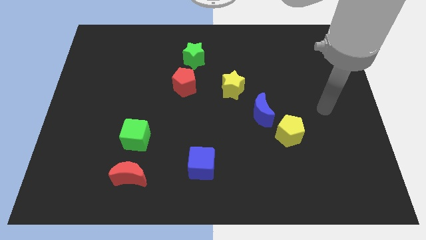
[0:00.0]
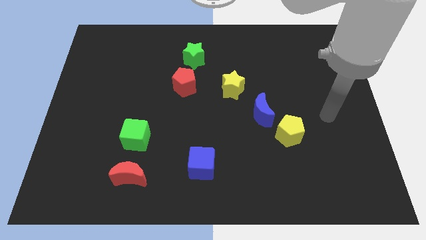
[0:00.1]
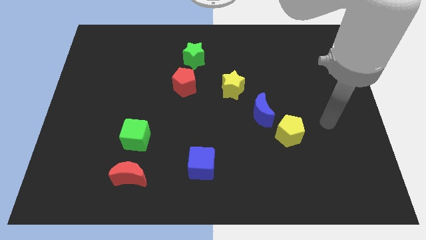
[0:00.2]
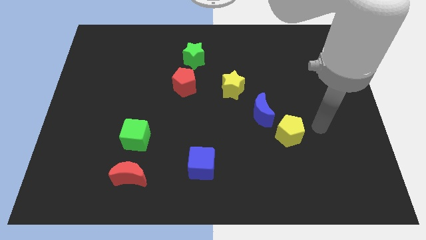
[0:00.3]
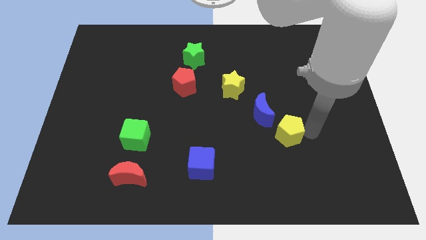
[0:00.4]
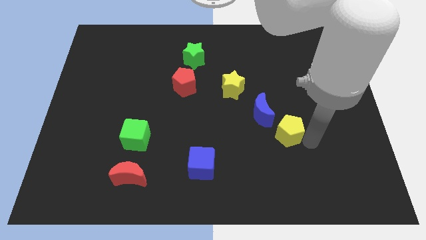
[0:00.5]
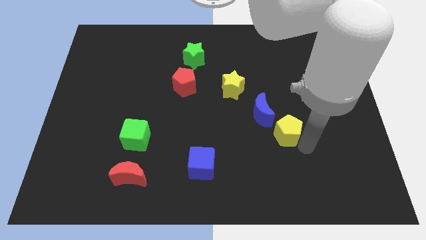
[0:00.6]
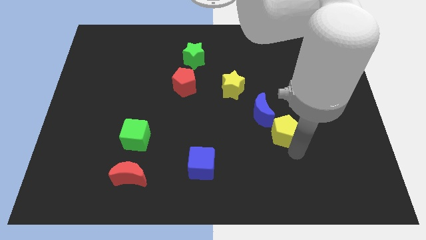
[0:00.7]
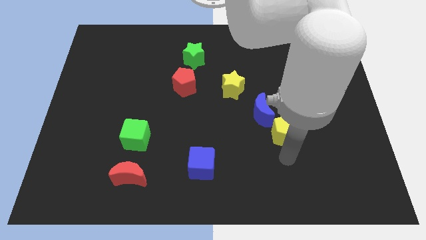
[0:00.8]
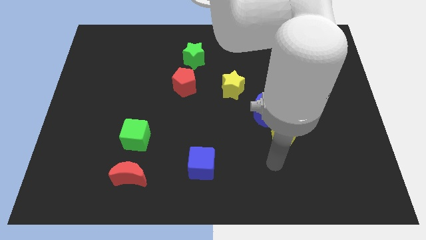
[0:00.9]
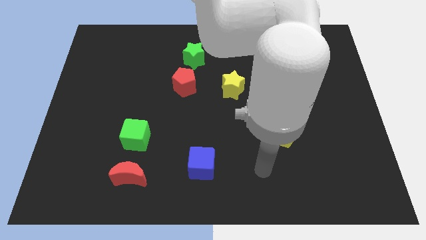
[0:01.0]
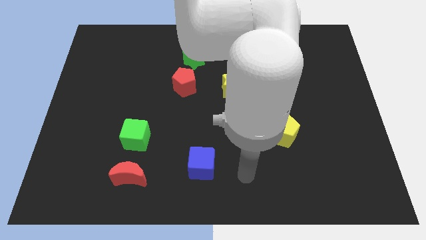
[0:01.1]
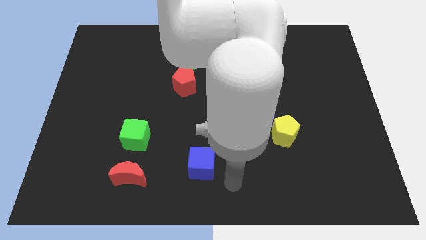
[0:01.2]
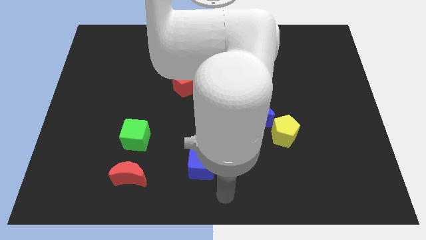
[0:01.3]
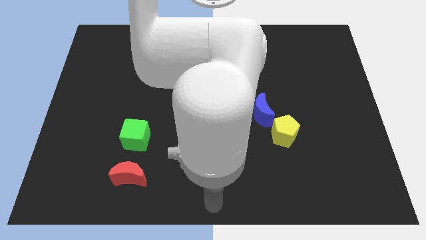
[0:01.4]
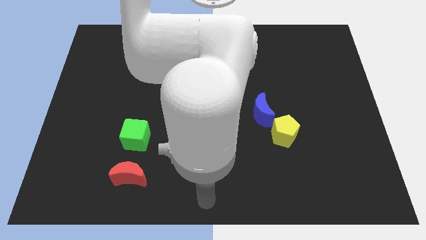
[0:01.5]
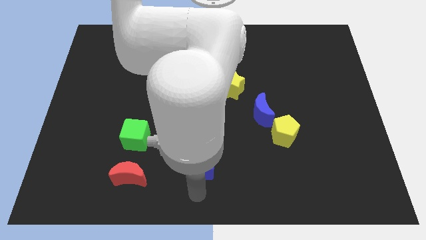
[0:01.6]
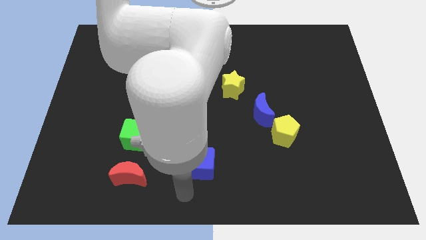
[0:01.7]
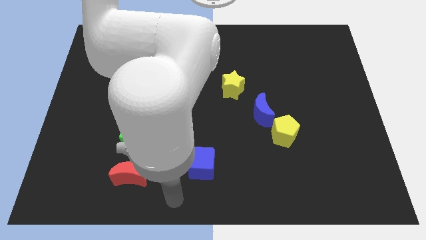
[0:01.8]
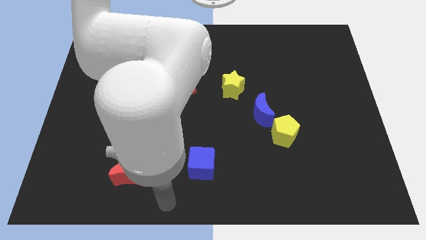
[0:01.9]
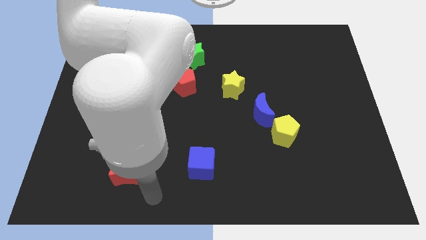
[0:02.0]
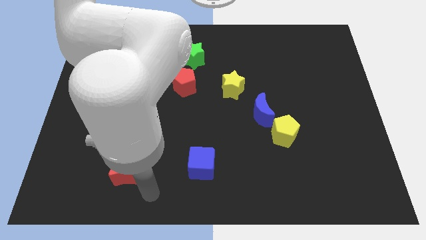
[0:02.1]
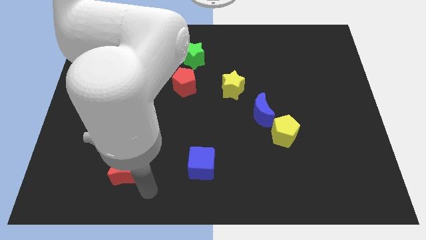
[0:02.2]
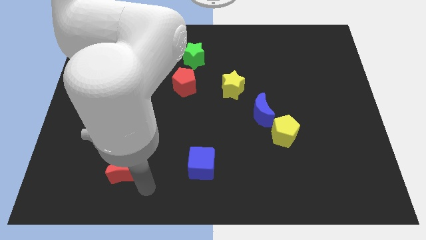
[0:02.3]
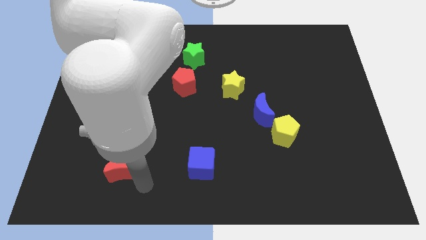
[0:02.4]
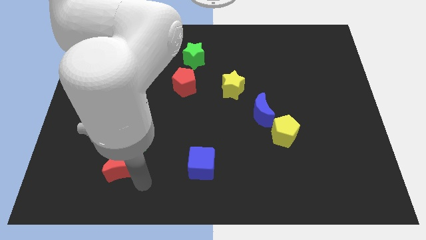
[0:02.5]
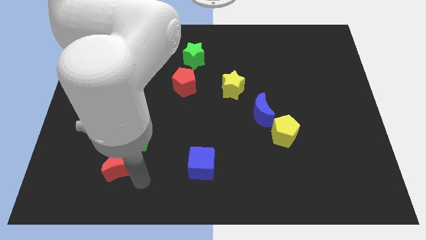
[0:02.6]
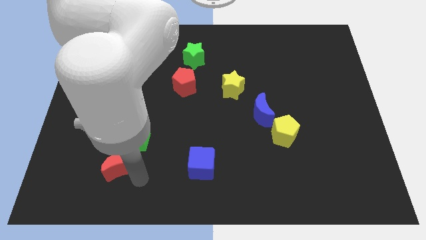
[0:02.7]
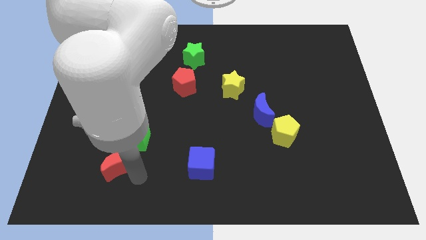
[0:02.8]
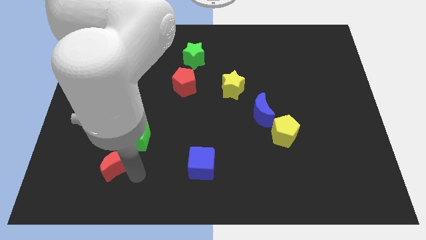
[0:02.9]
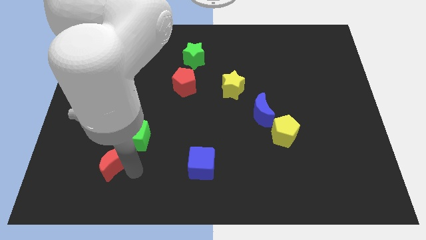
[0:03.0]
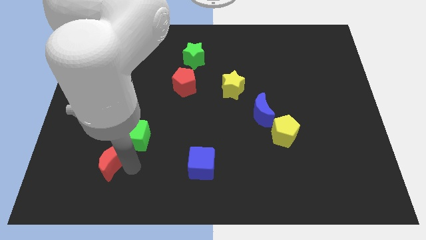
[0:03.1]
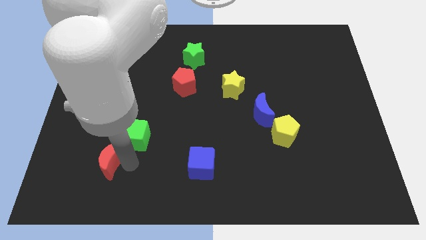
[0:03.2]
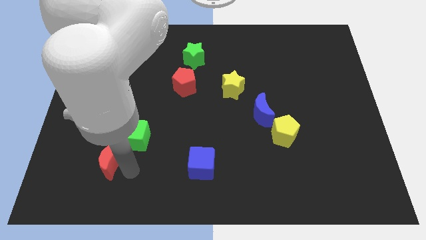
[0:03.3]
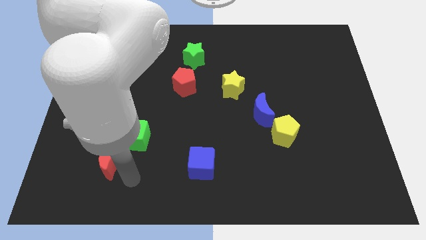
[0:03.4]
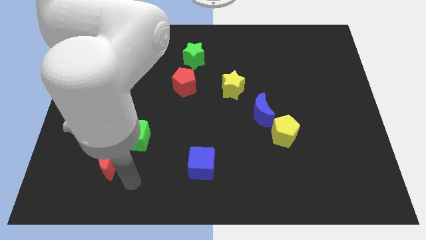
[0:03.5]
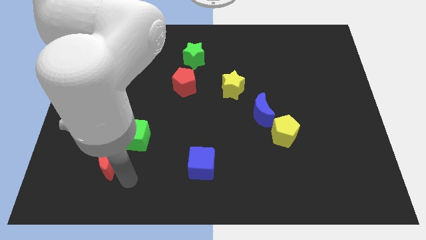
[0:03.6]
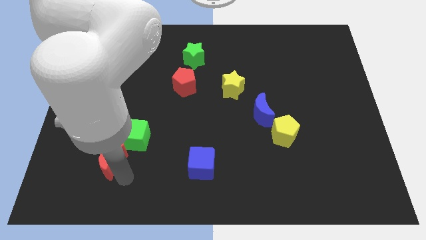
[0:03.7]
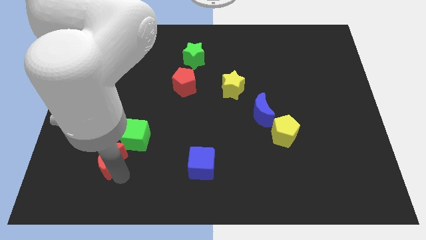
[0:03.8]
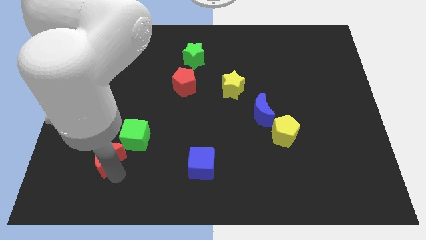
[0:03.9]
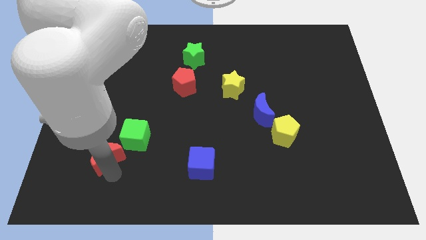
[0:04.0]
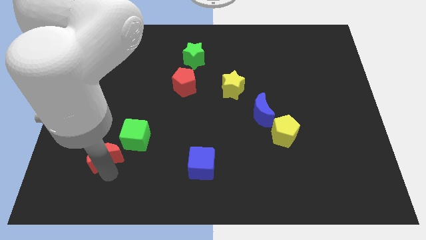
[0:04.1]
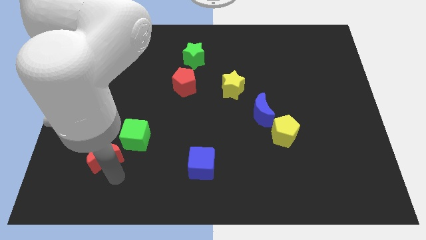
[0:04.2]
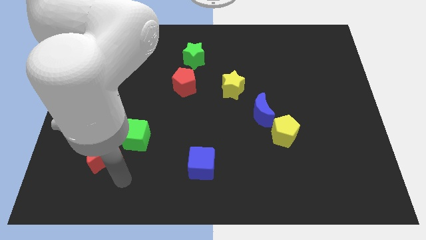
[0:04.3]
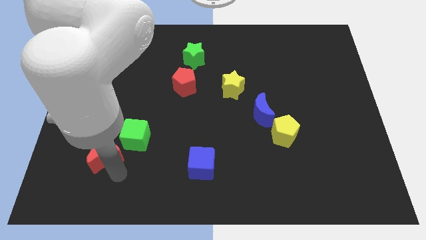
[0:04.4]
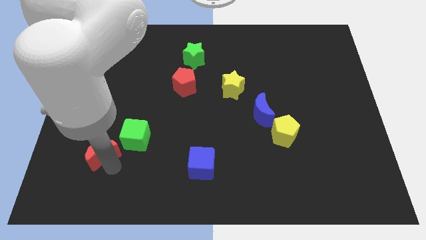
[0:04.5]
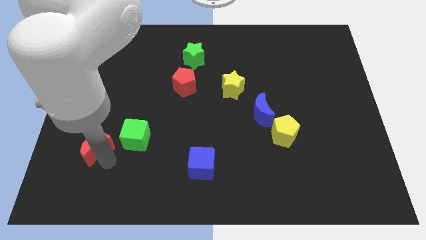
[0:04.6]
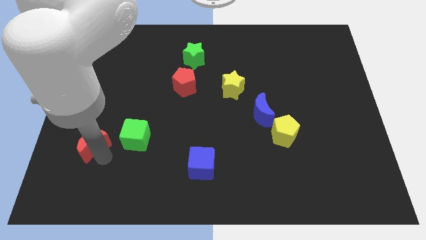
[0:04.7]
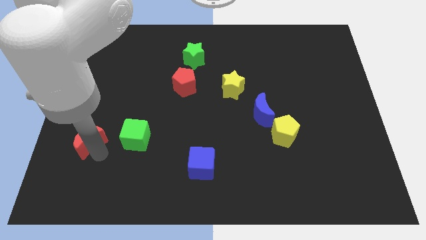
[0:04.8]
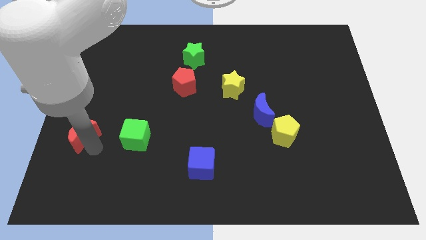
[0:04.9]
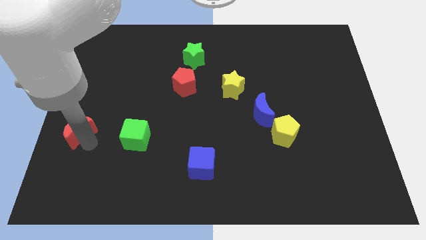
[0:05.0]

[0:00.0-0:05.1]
put the red moon to the left side

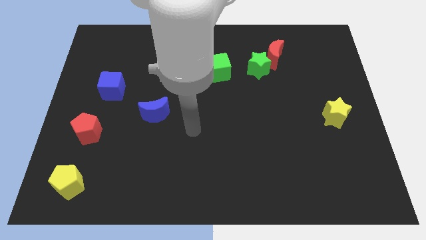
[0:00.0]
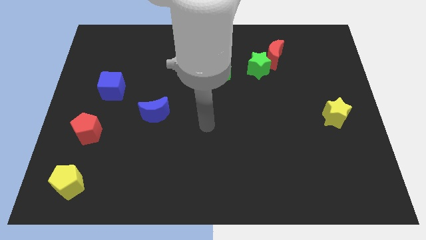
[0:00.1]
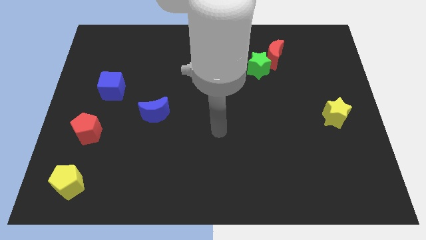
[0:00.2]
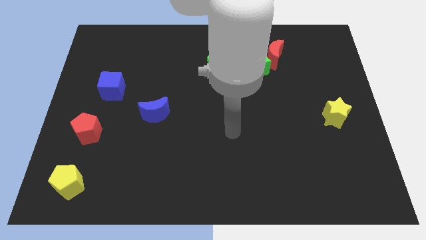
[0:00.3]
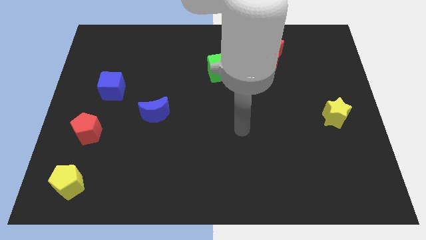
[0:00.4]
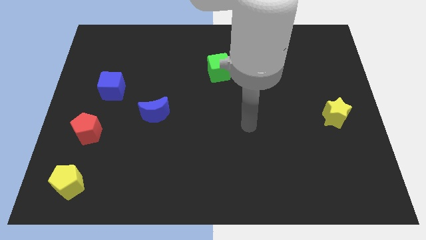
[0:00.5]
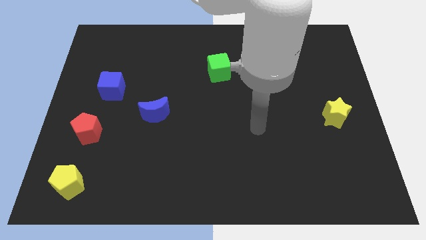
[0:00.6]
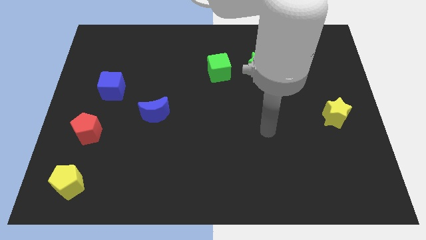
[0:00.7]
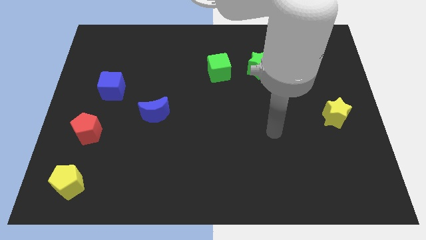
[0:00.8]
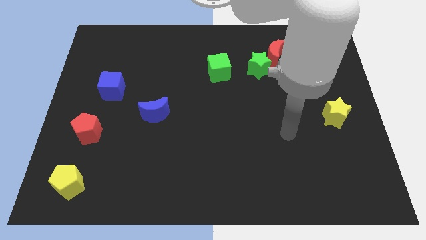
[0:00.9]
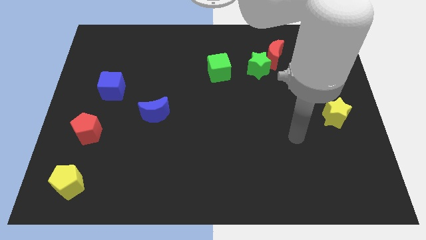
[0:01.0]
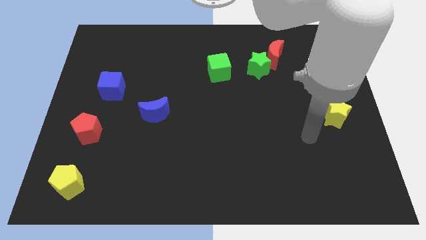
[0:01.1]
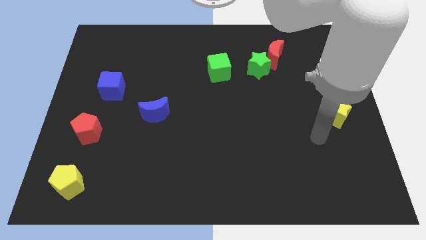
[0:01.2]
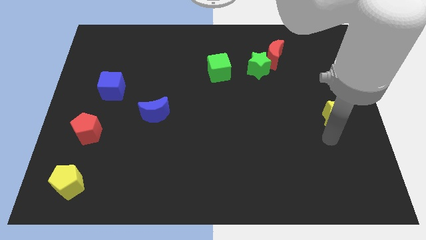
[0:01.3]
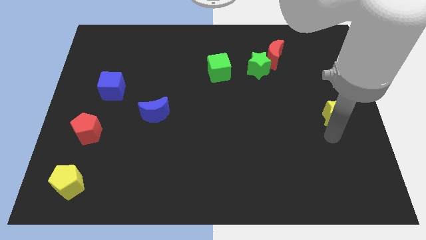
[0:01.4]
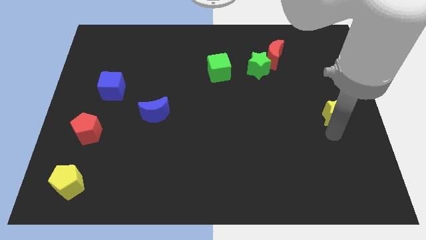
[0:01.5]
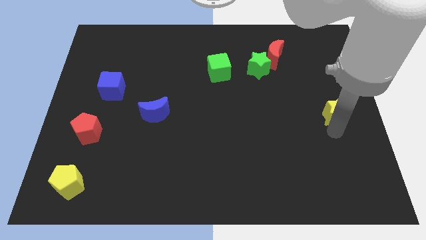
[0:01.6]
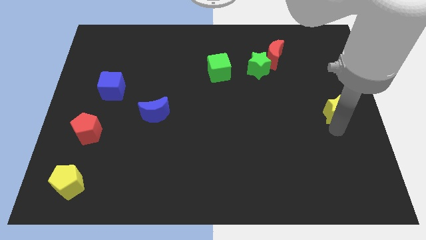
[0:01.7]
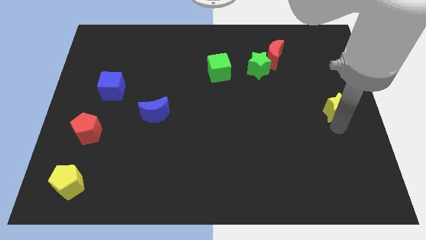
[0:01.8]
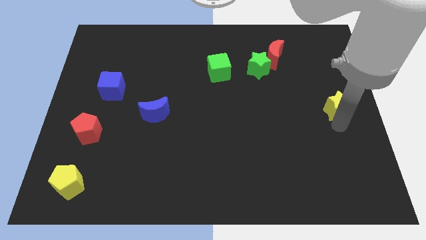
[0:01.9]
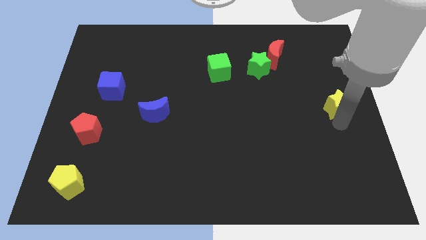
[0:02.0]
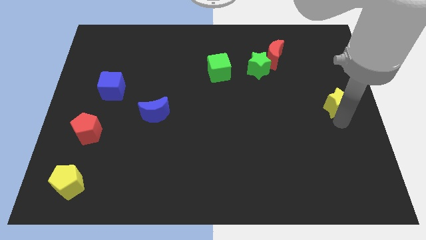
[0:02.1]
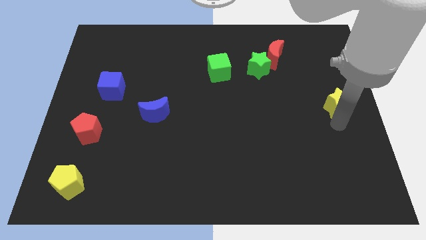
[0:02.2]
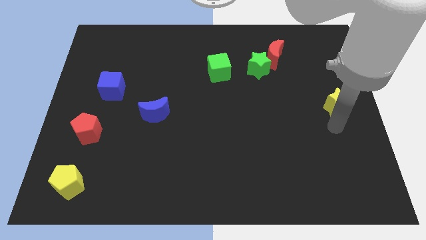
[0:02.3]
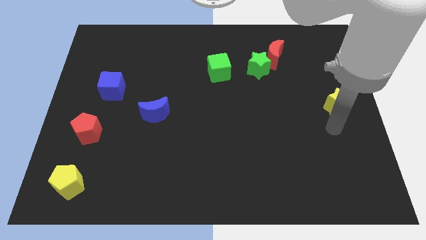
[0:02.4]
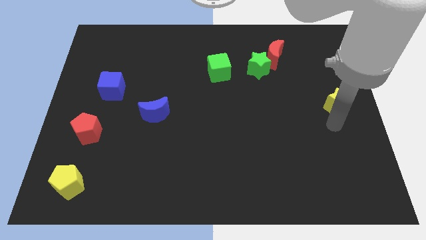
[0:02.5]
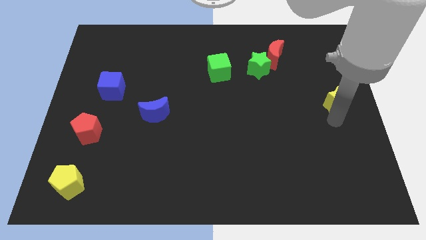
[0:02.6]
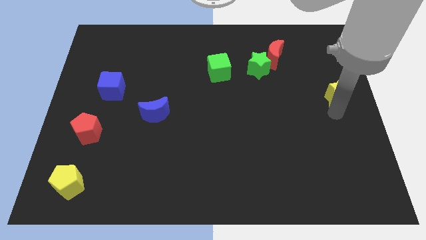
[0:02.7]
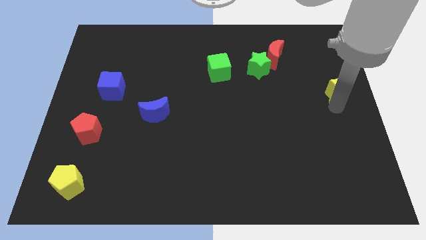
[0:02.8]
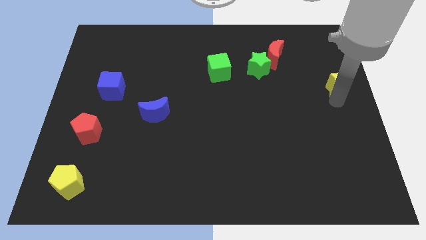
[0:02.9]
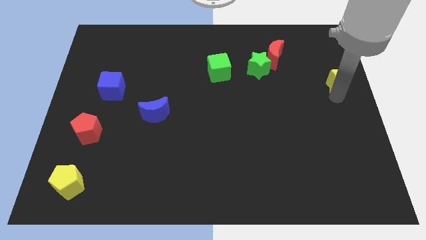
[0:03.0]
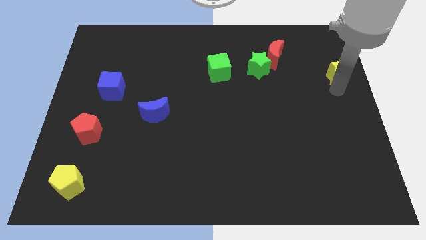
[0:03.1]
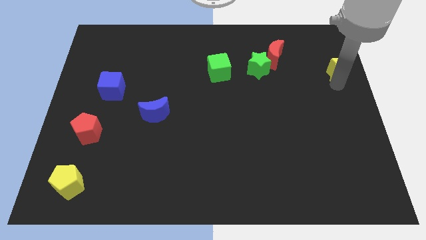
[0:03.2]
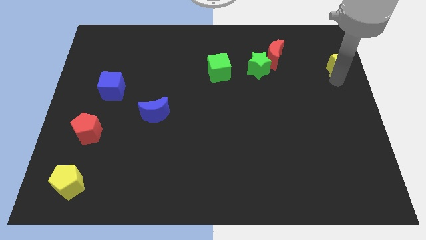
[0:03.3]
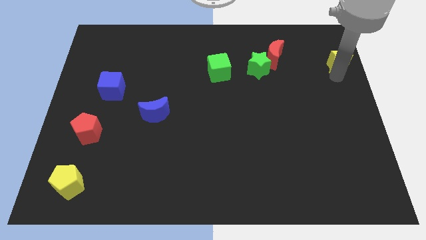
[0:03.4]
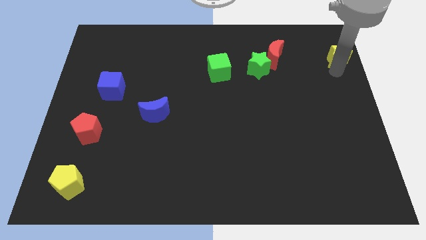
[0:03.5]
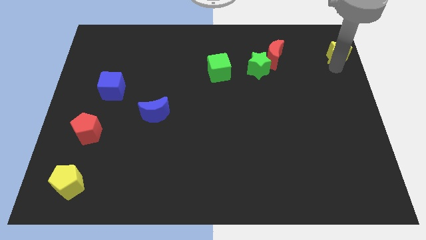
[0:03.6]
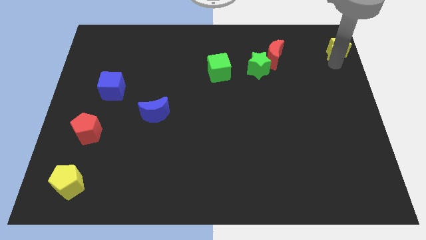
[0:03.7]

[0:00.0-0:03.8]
slide the yellow star to the top right of the board
